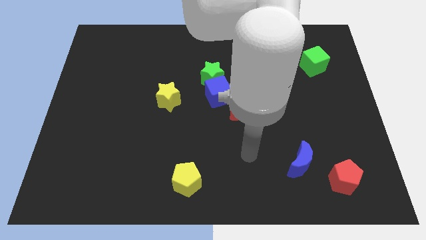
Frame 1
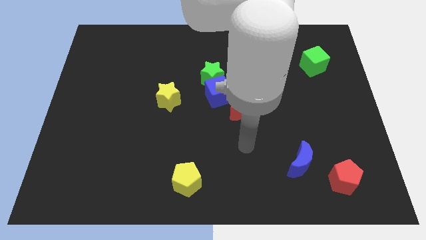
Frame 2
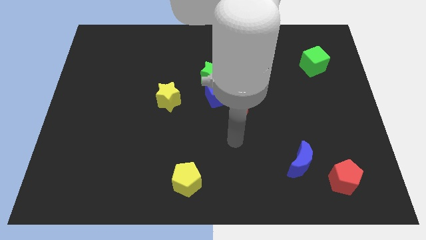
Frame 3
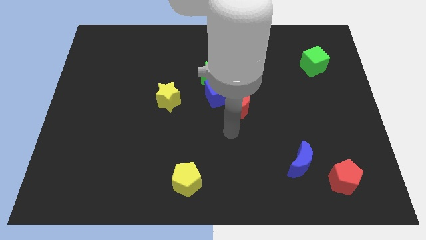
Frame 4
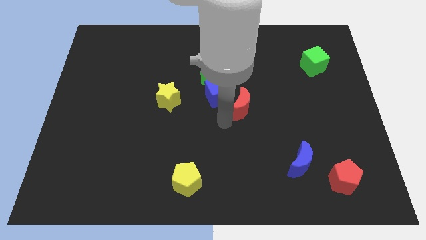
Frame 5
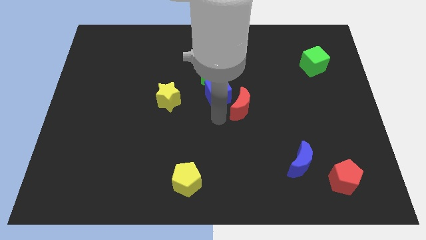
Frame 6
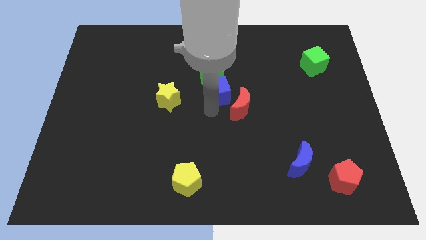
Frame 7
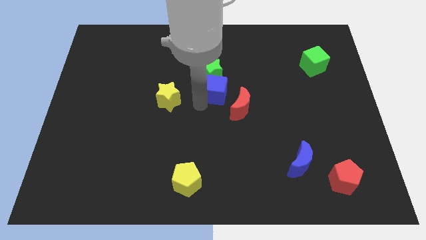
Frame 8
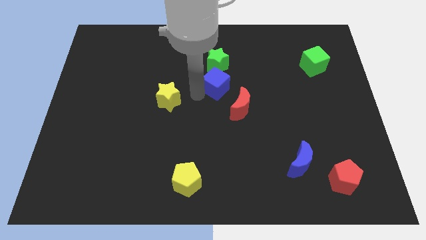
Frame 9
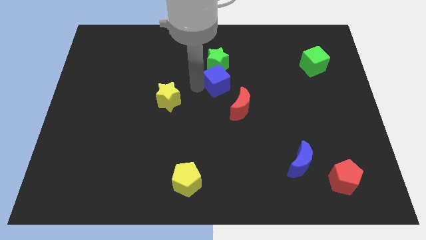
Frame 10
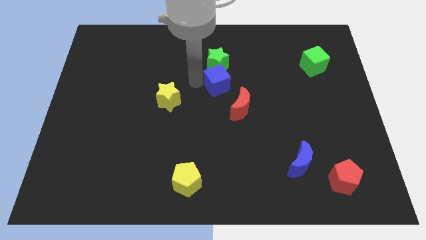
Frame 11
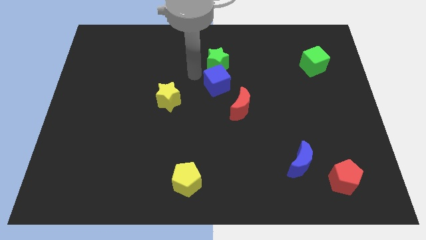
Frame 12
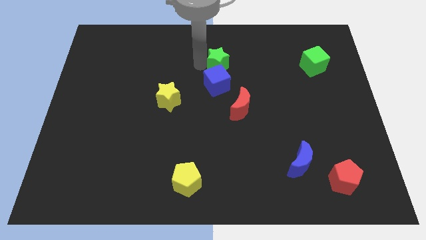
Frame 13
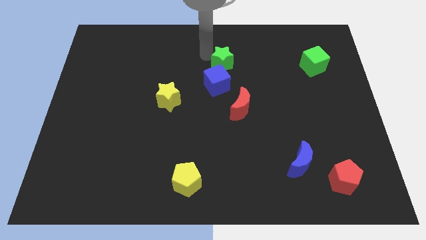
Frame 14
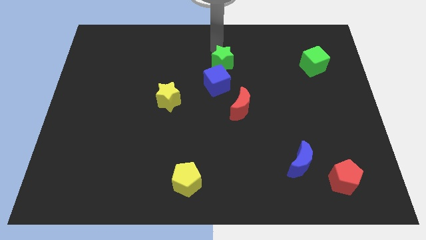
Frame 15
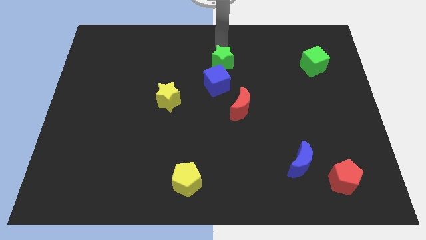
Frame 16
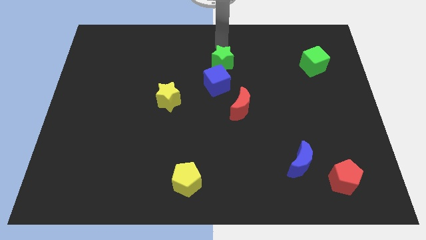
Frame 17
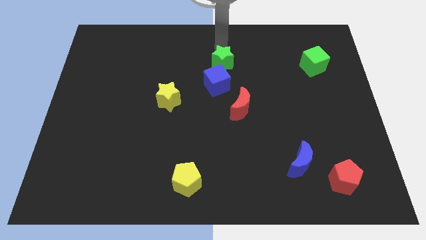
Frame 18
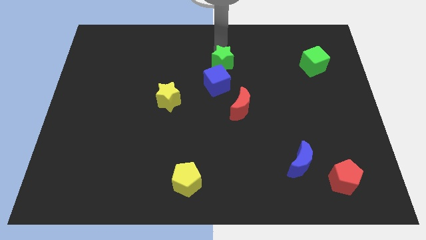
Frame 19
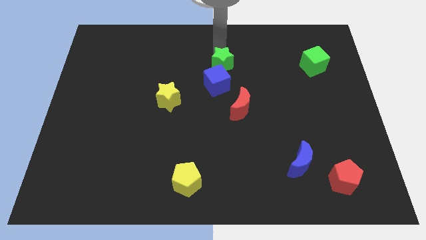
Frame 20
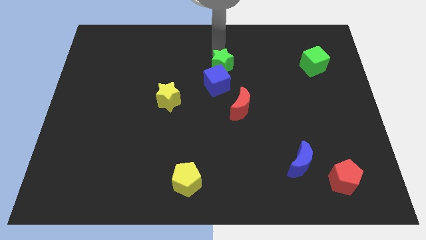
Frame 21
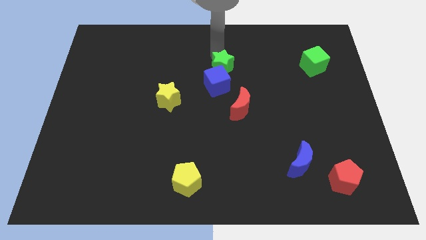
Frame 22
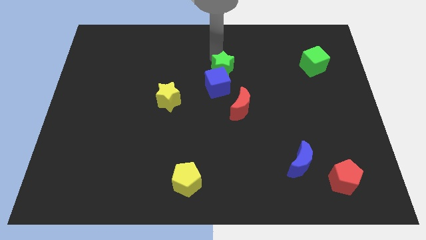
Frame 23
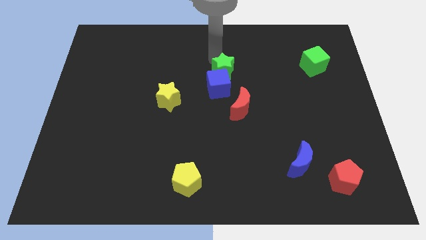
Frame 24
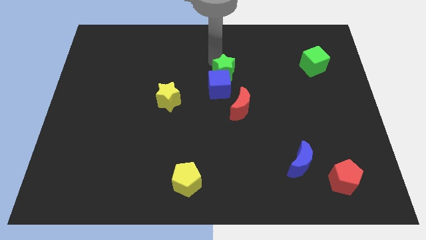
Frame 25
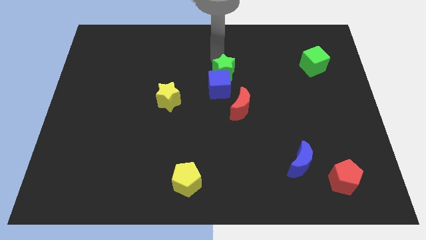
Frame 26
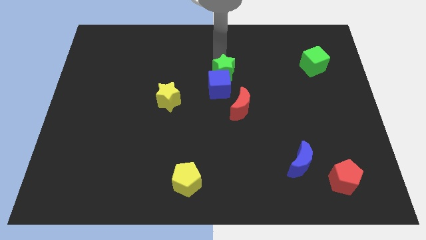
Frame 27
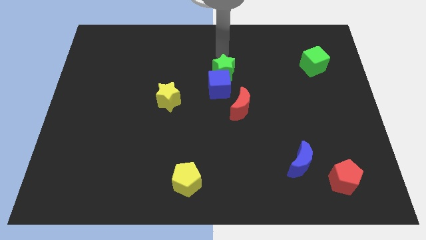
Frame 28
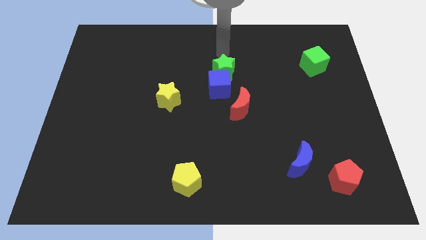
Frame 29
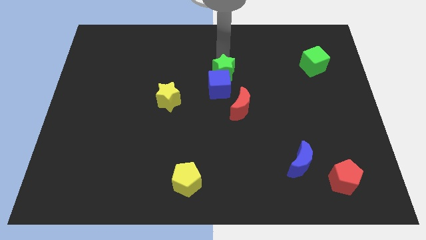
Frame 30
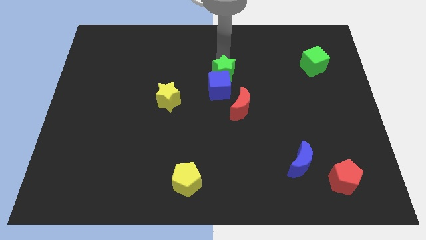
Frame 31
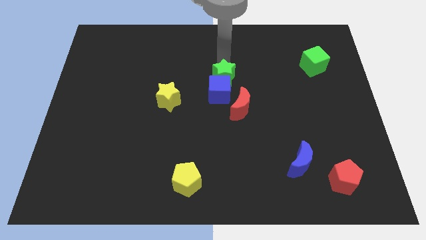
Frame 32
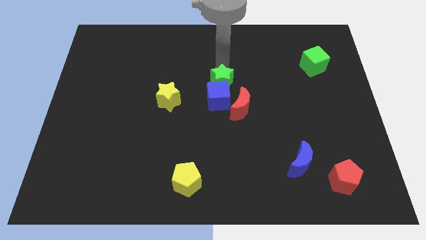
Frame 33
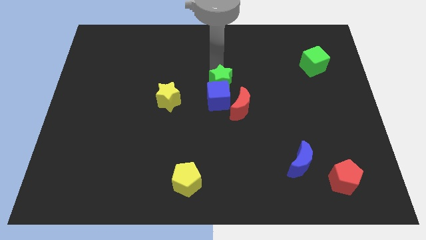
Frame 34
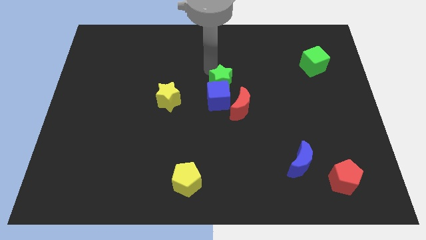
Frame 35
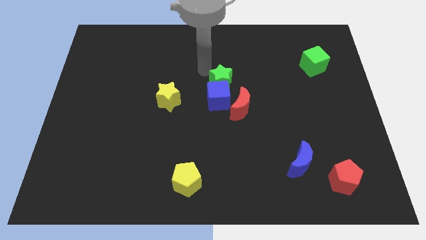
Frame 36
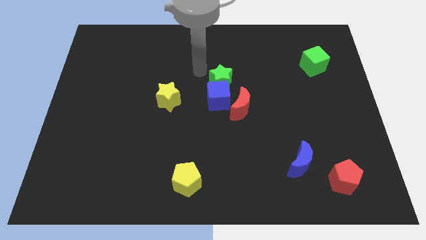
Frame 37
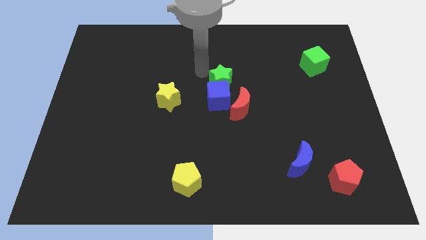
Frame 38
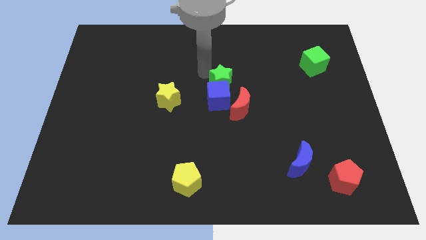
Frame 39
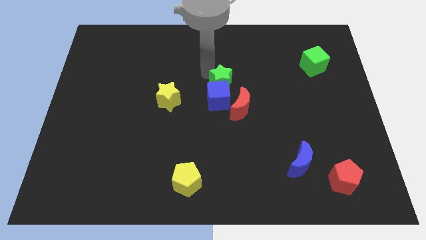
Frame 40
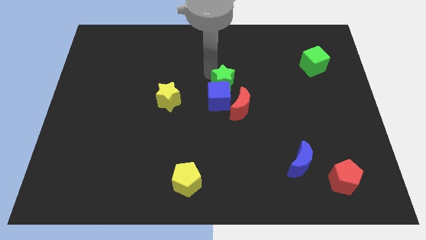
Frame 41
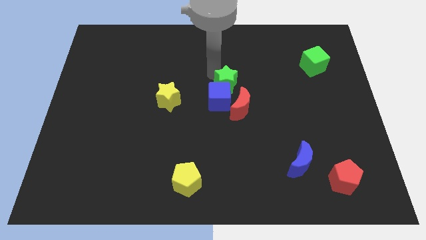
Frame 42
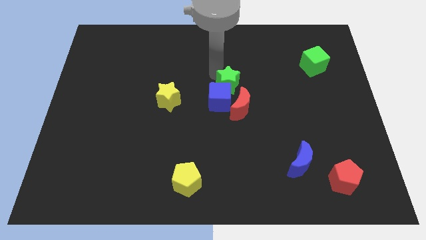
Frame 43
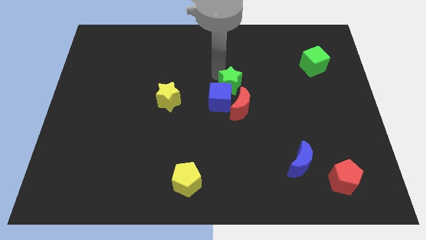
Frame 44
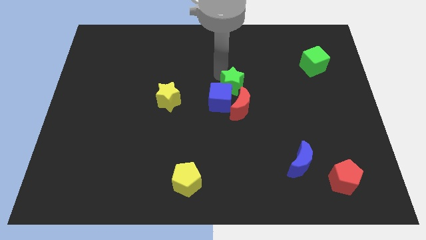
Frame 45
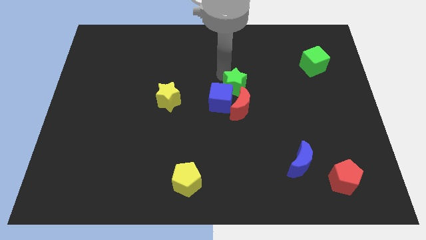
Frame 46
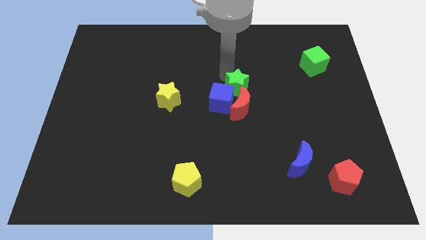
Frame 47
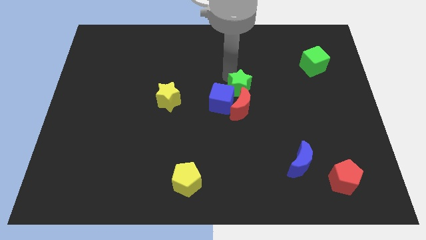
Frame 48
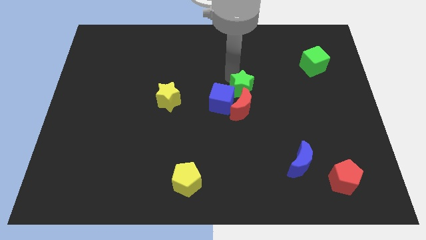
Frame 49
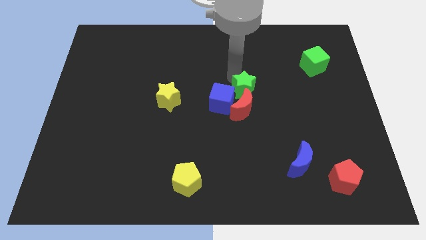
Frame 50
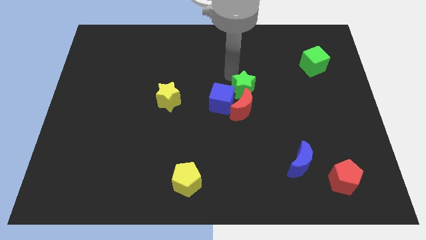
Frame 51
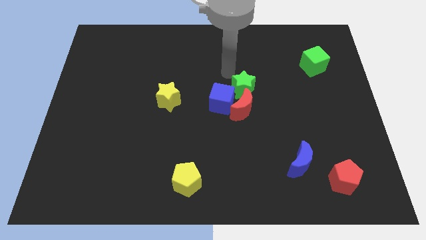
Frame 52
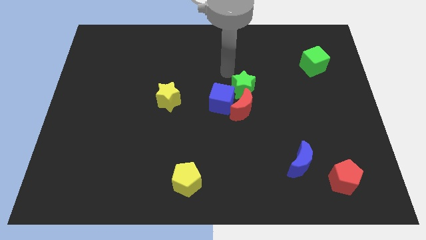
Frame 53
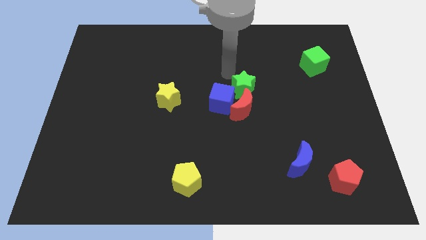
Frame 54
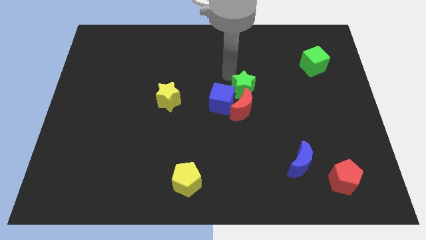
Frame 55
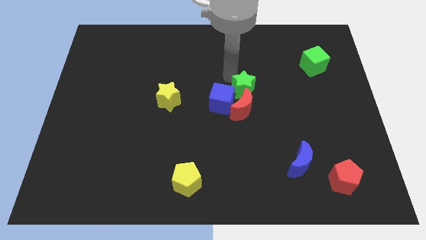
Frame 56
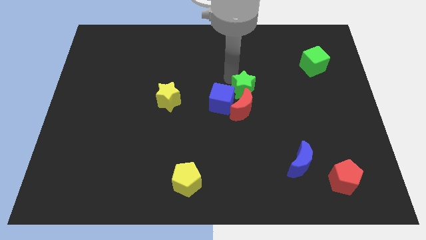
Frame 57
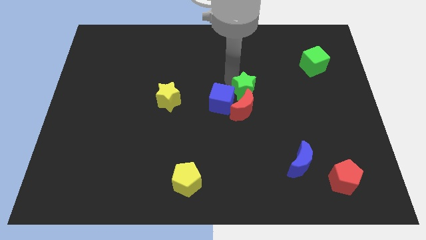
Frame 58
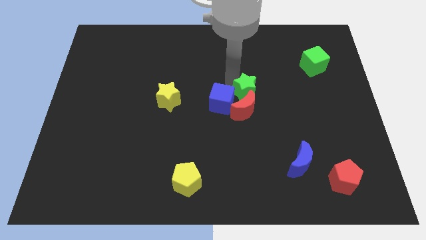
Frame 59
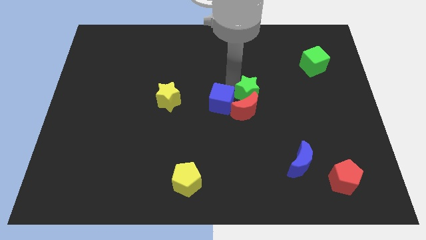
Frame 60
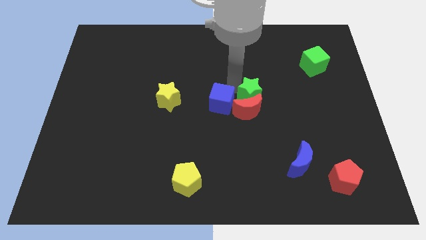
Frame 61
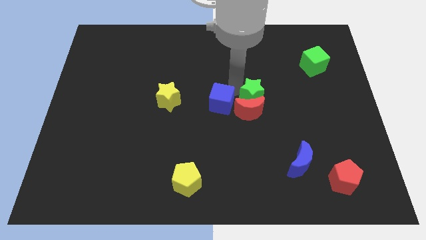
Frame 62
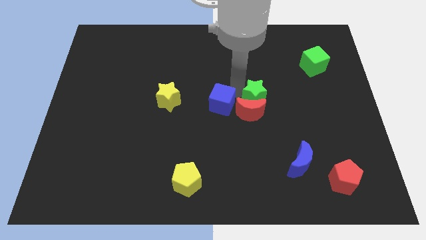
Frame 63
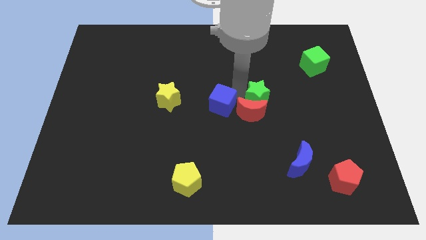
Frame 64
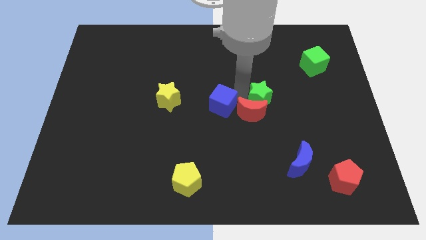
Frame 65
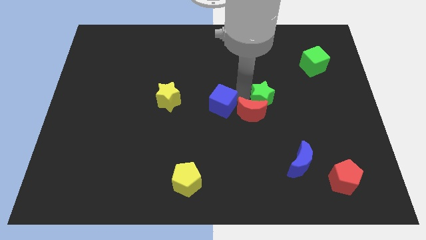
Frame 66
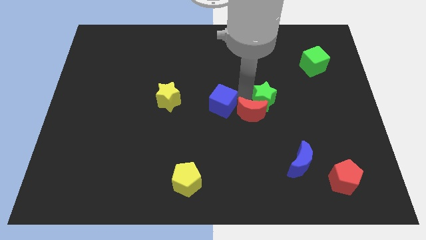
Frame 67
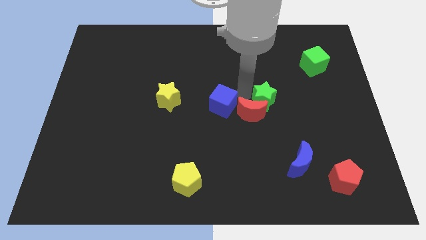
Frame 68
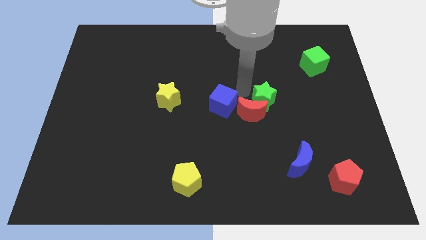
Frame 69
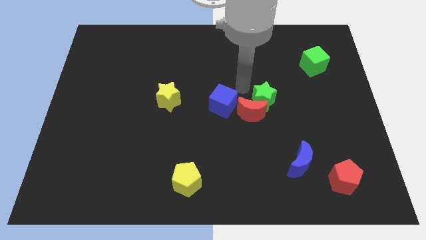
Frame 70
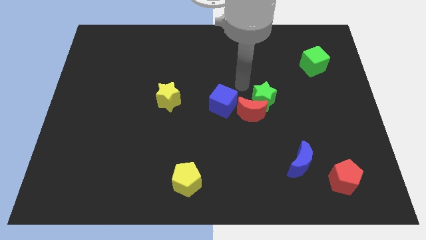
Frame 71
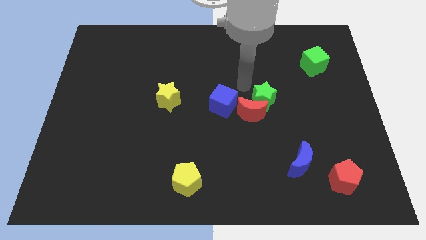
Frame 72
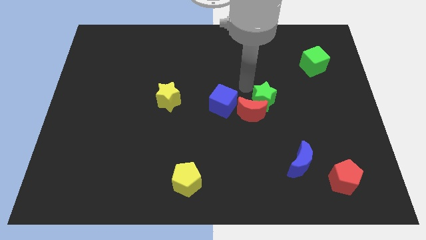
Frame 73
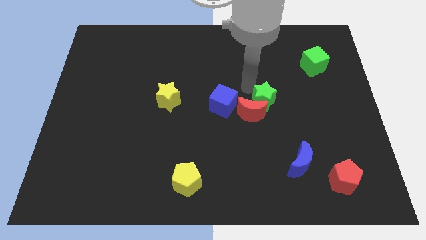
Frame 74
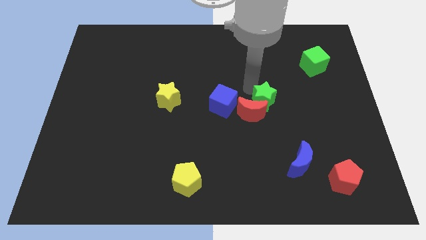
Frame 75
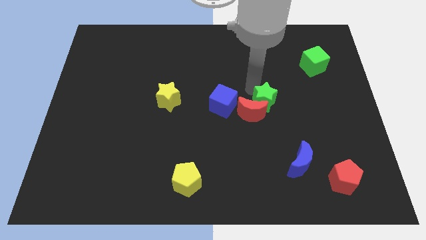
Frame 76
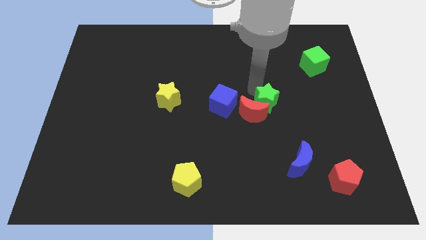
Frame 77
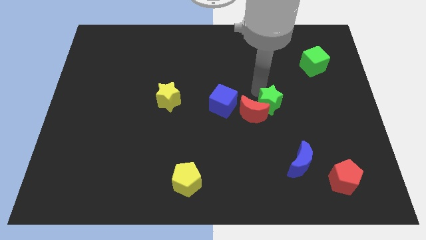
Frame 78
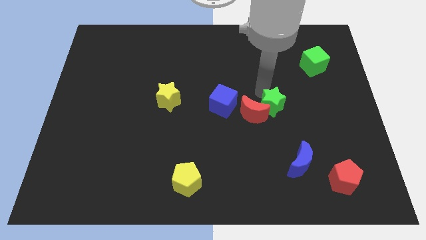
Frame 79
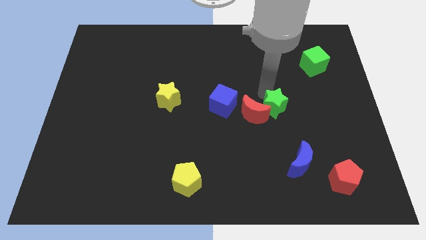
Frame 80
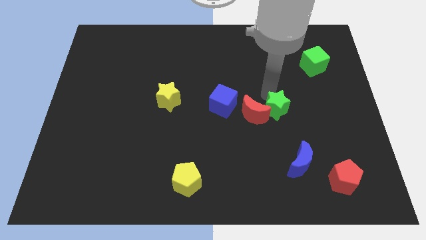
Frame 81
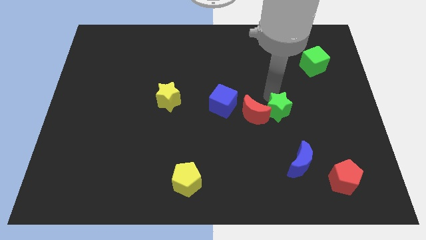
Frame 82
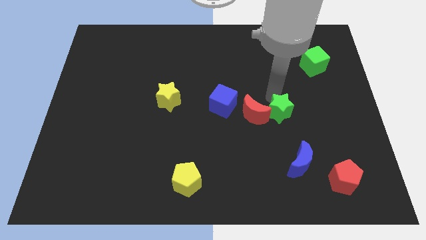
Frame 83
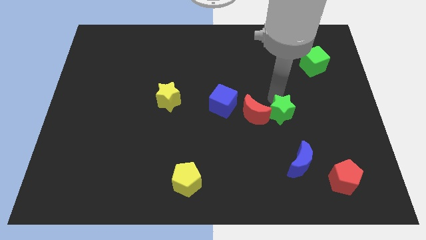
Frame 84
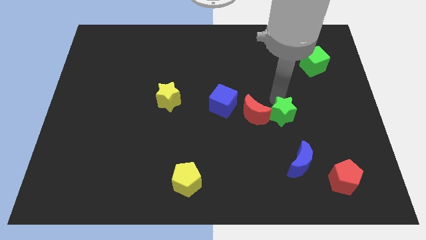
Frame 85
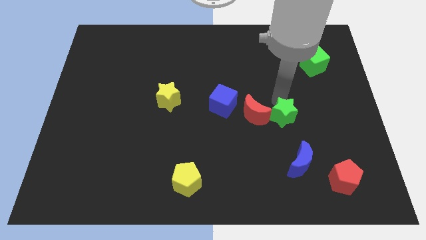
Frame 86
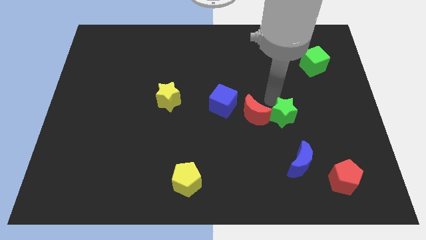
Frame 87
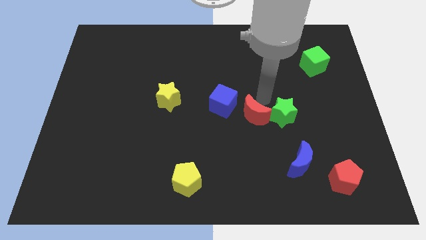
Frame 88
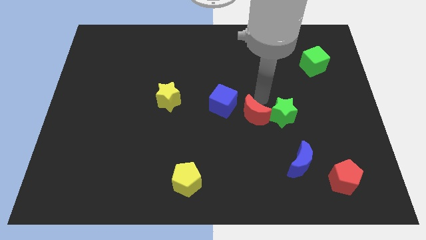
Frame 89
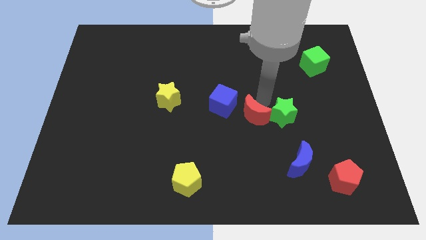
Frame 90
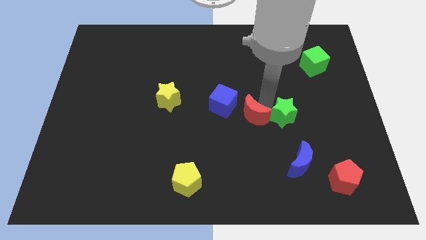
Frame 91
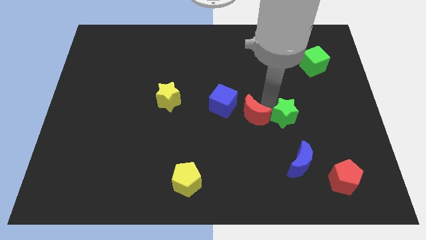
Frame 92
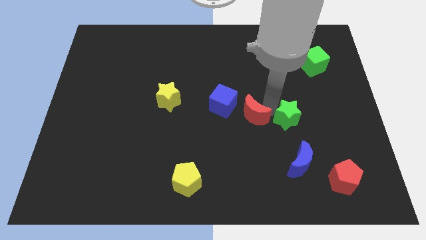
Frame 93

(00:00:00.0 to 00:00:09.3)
move the green star downwards and then right
